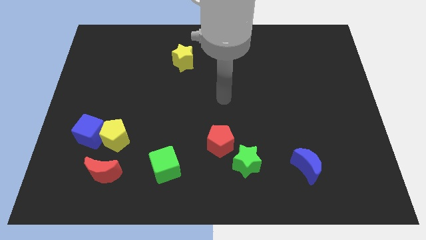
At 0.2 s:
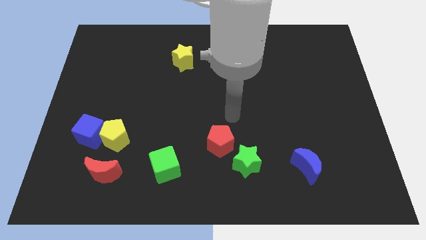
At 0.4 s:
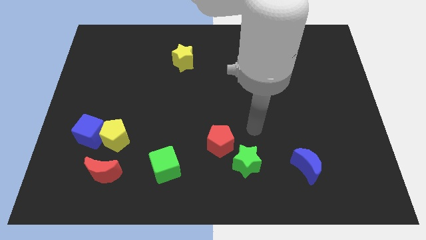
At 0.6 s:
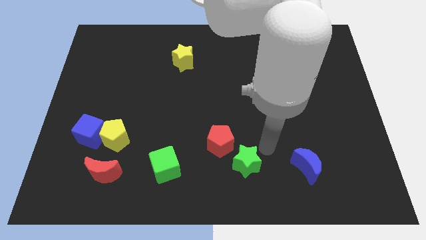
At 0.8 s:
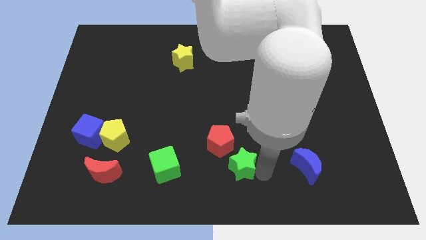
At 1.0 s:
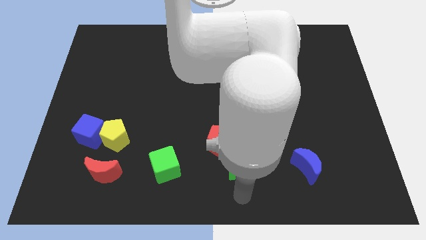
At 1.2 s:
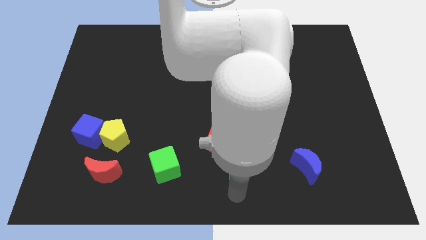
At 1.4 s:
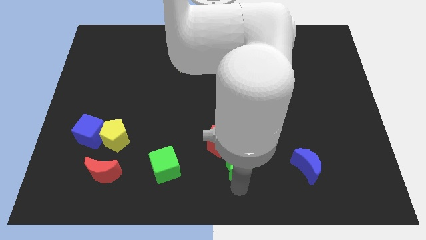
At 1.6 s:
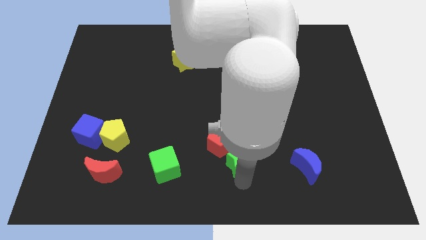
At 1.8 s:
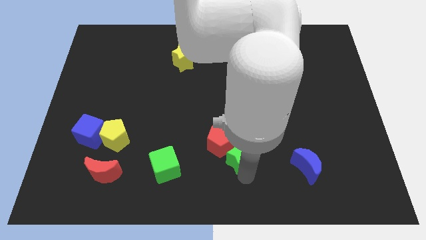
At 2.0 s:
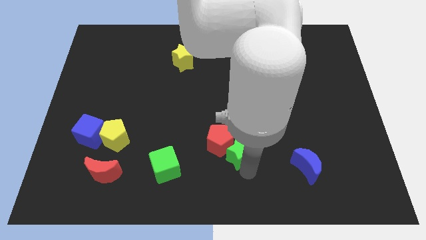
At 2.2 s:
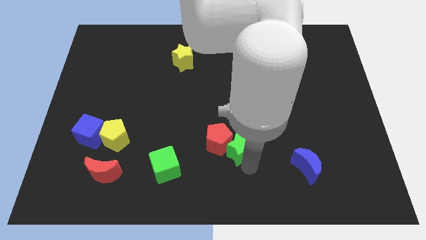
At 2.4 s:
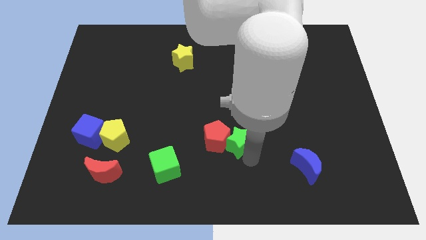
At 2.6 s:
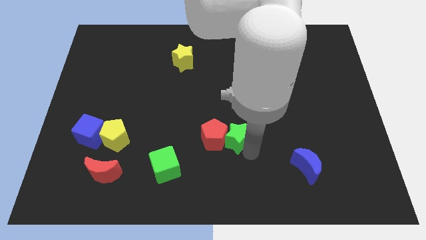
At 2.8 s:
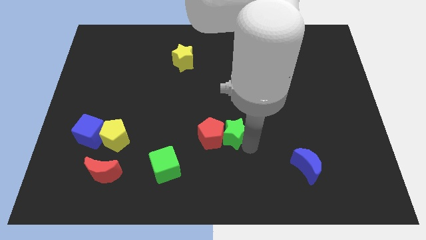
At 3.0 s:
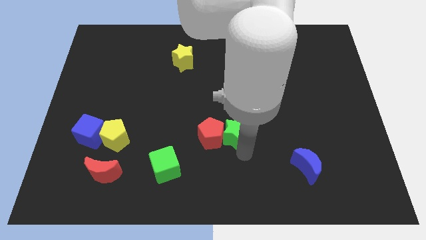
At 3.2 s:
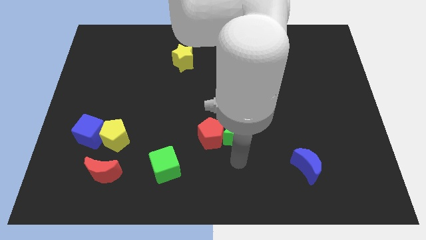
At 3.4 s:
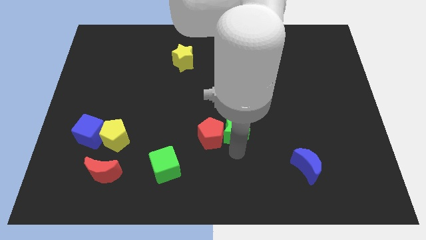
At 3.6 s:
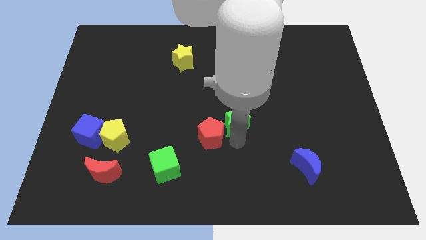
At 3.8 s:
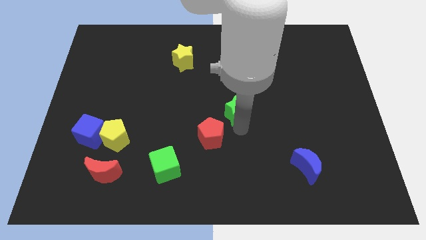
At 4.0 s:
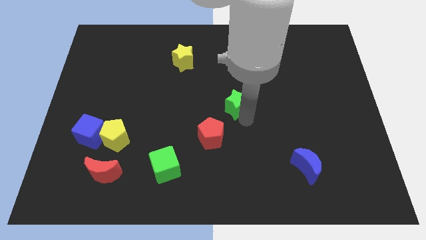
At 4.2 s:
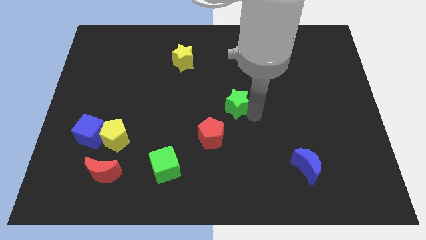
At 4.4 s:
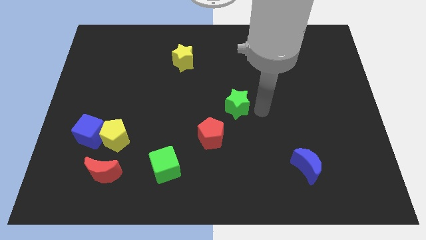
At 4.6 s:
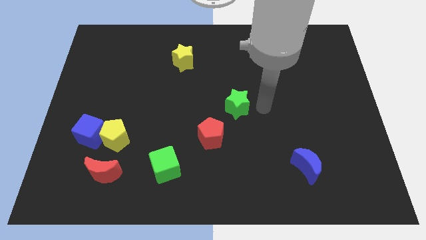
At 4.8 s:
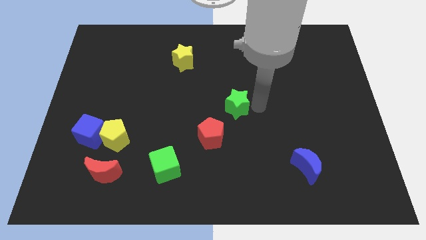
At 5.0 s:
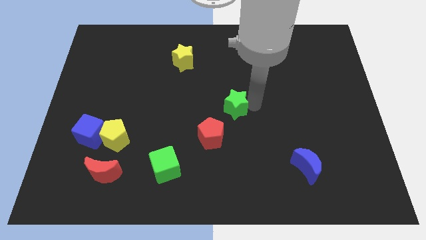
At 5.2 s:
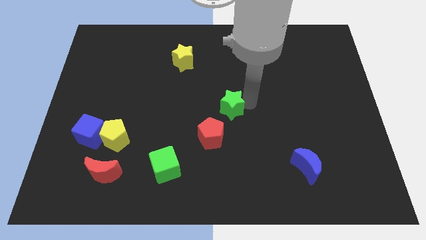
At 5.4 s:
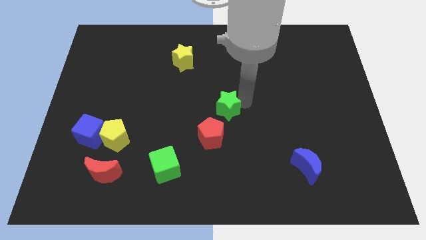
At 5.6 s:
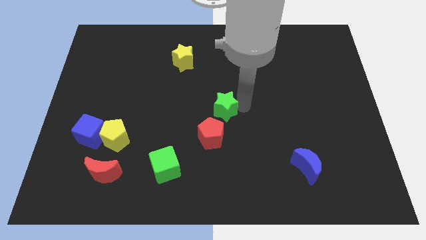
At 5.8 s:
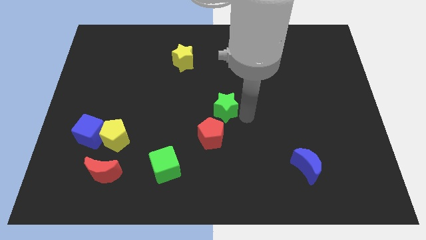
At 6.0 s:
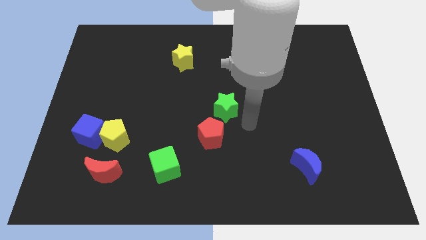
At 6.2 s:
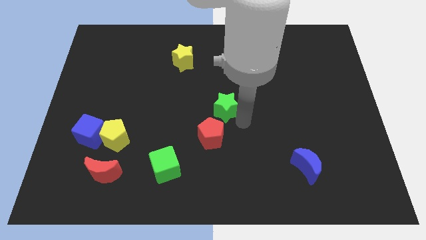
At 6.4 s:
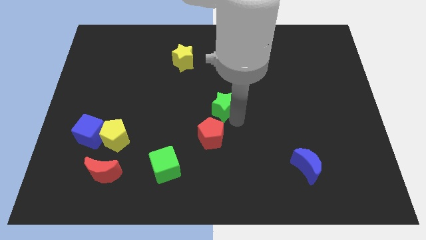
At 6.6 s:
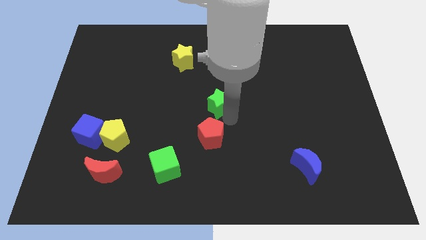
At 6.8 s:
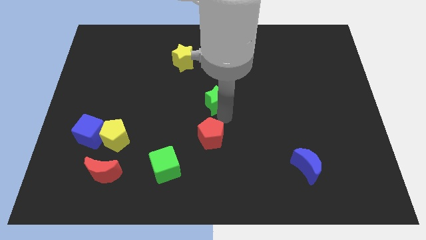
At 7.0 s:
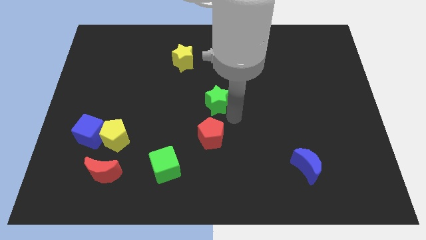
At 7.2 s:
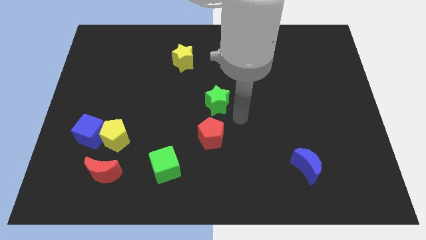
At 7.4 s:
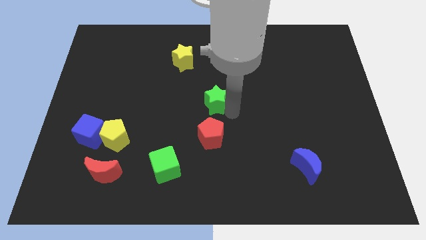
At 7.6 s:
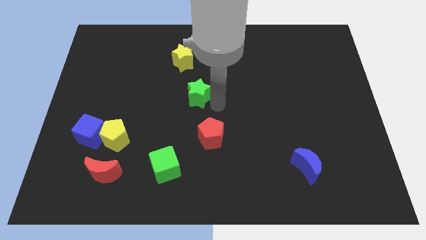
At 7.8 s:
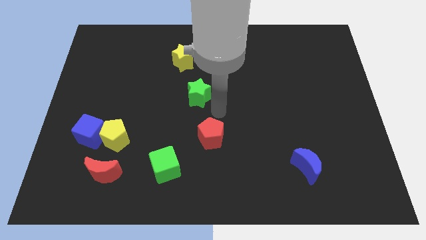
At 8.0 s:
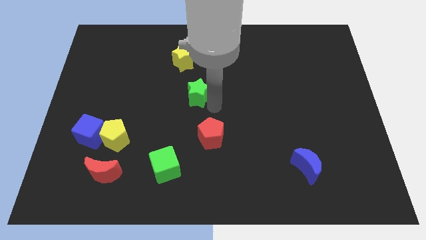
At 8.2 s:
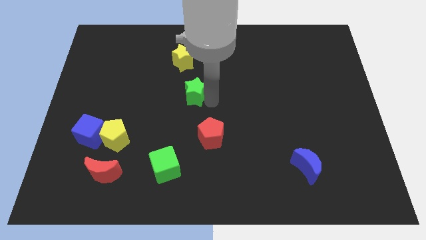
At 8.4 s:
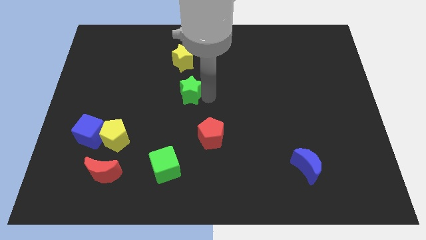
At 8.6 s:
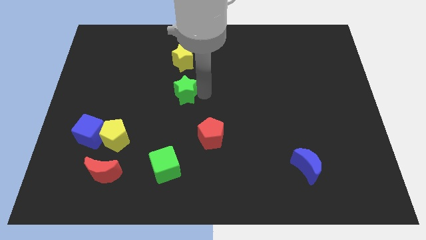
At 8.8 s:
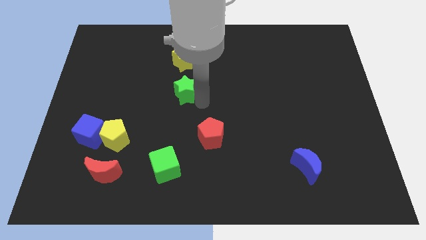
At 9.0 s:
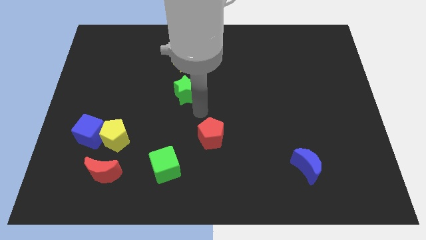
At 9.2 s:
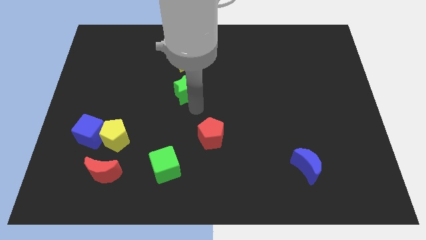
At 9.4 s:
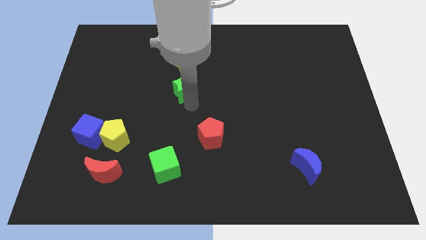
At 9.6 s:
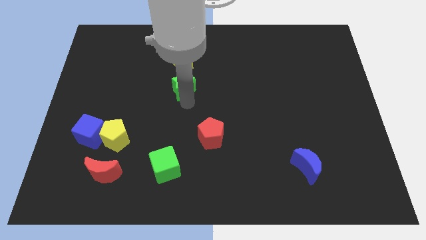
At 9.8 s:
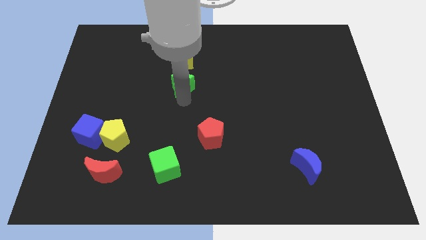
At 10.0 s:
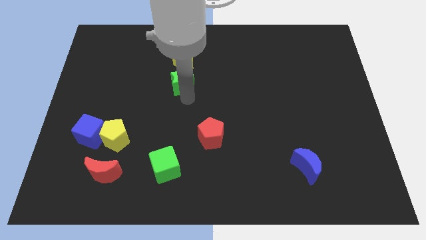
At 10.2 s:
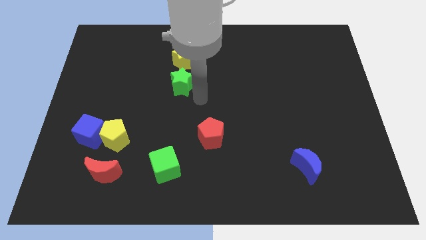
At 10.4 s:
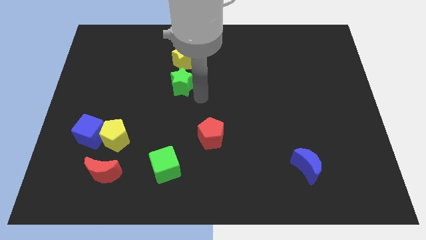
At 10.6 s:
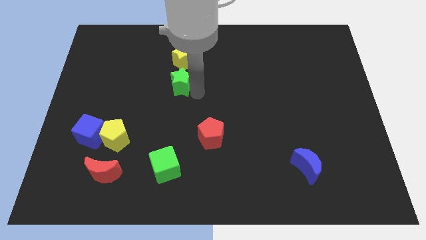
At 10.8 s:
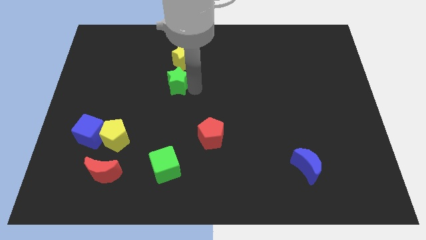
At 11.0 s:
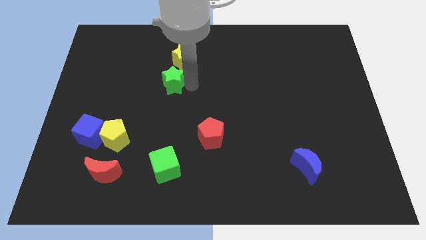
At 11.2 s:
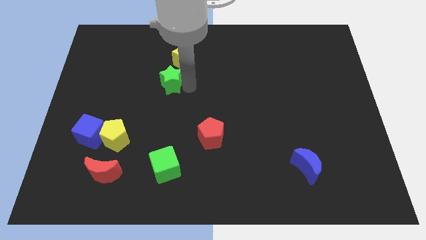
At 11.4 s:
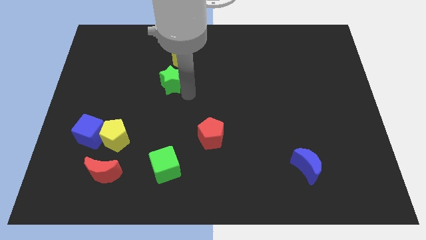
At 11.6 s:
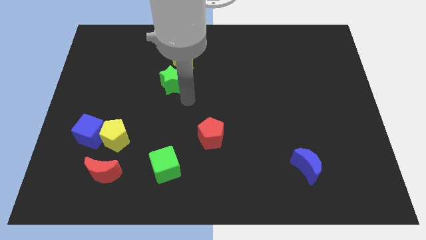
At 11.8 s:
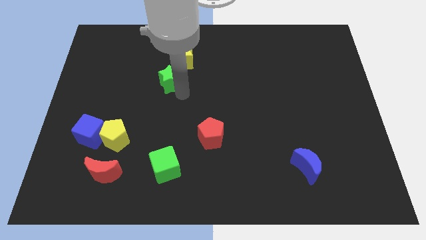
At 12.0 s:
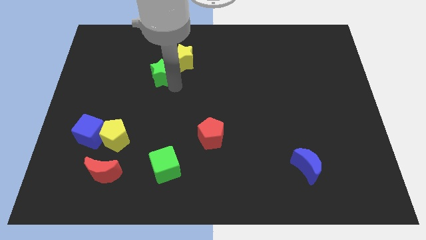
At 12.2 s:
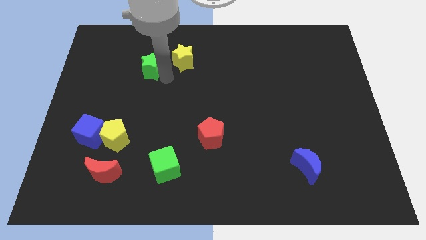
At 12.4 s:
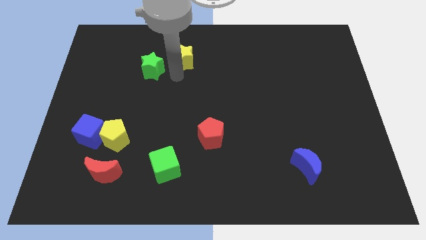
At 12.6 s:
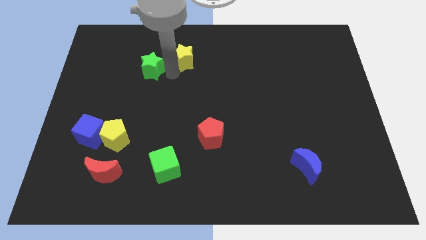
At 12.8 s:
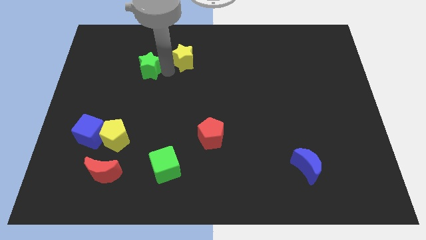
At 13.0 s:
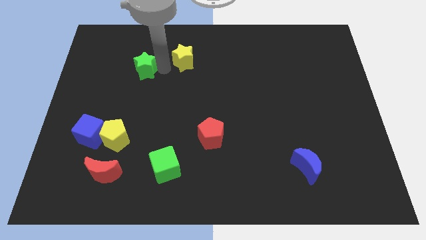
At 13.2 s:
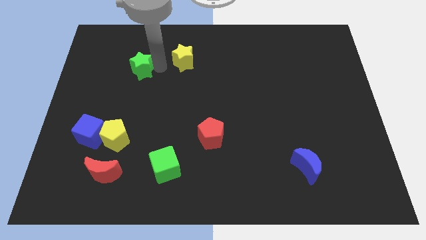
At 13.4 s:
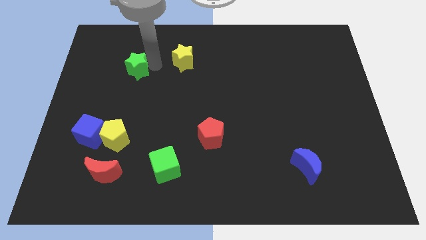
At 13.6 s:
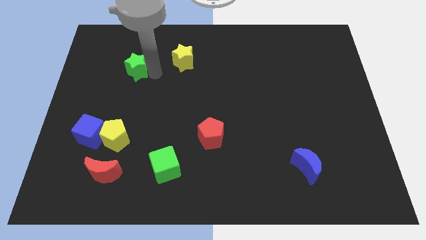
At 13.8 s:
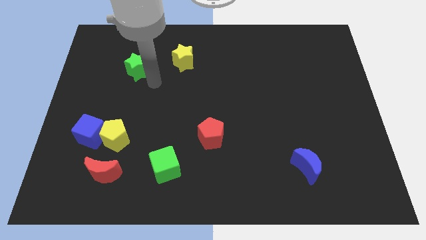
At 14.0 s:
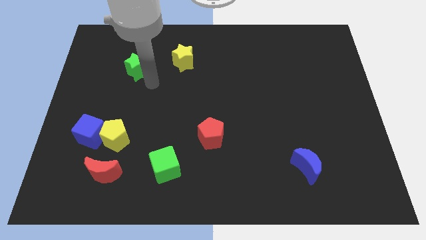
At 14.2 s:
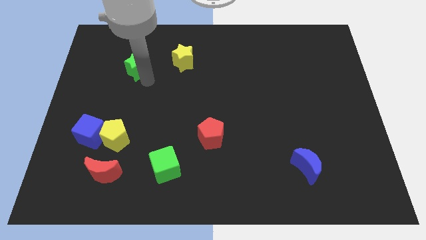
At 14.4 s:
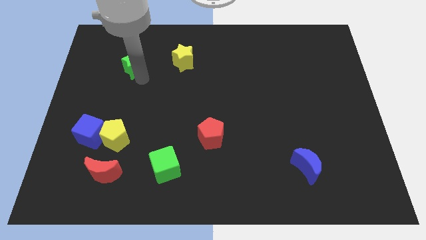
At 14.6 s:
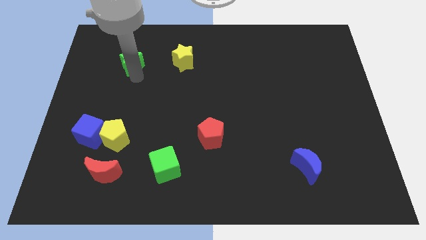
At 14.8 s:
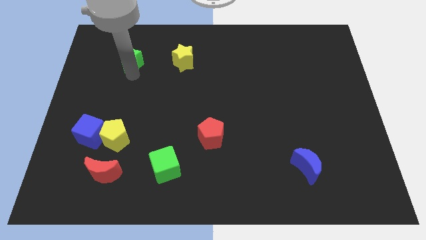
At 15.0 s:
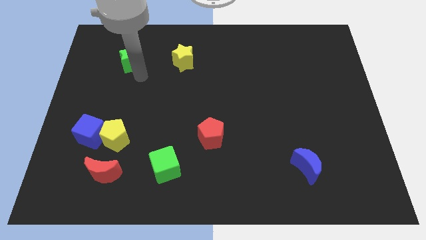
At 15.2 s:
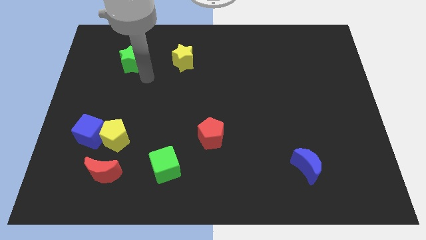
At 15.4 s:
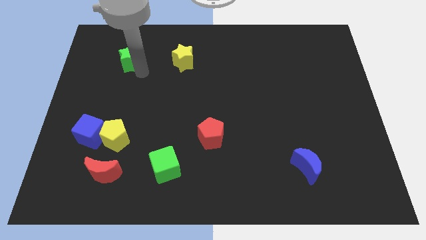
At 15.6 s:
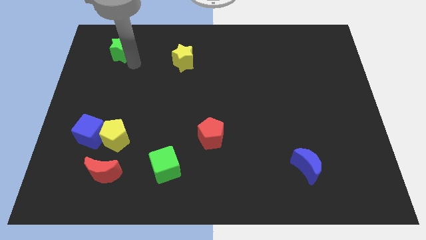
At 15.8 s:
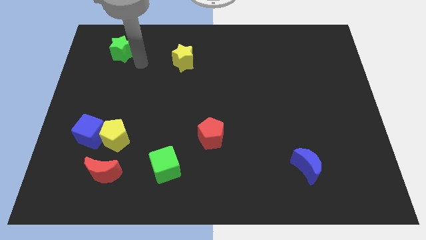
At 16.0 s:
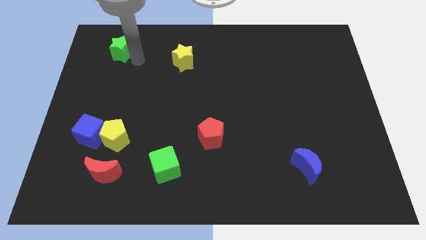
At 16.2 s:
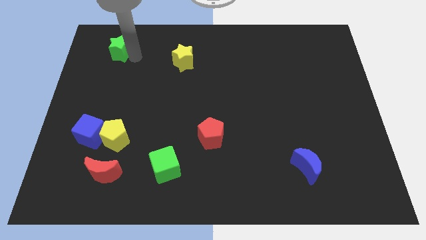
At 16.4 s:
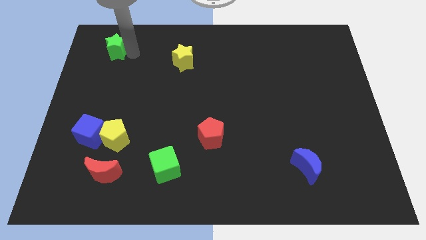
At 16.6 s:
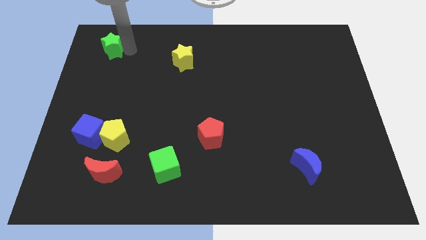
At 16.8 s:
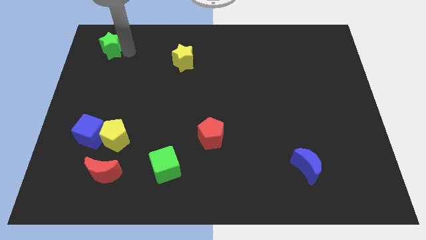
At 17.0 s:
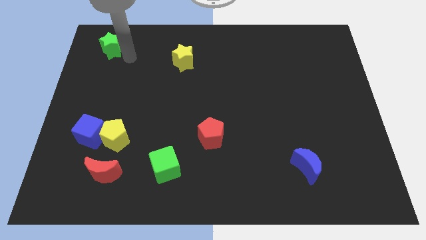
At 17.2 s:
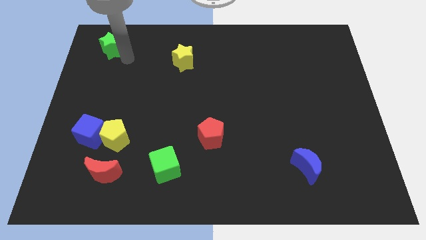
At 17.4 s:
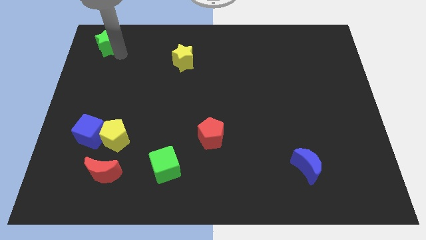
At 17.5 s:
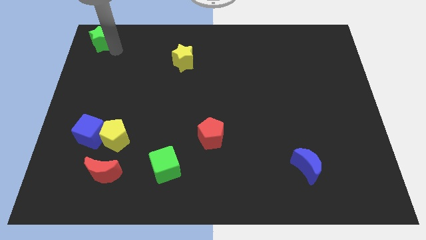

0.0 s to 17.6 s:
move the green star to the top left of the board
